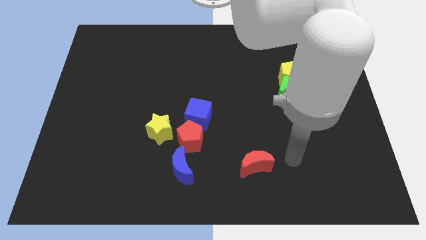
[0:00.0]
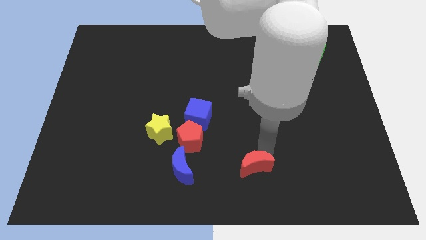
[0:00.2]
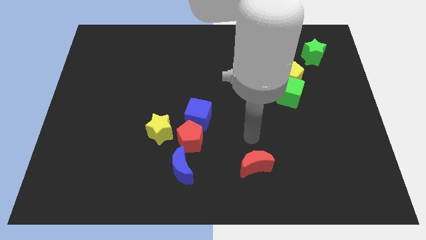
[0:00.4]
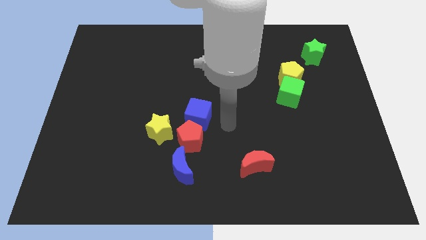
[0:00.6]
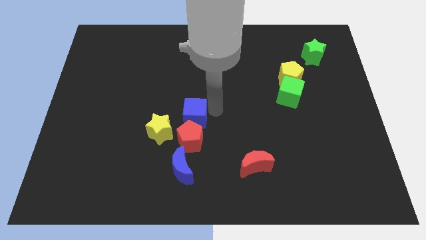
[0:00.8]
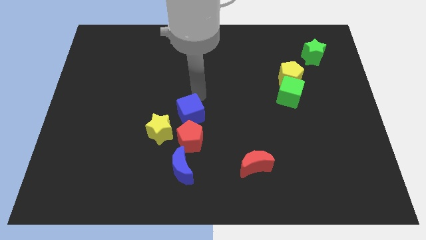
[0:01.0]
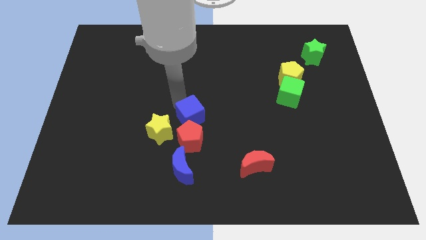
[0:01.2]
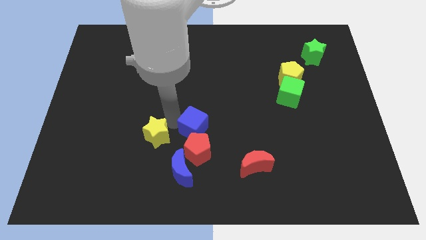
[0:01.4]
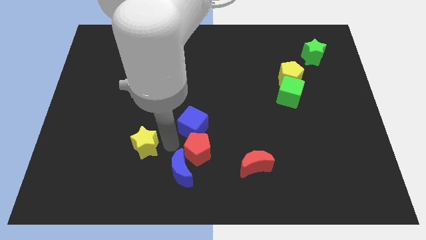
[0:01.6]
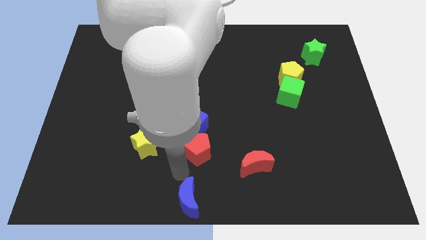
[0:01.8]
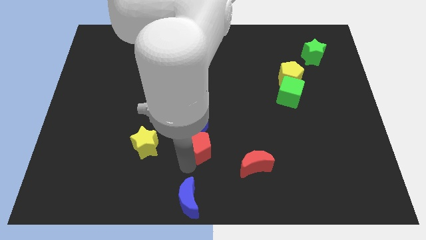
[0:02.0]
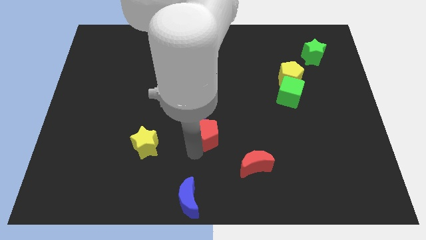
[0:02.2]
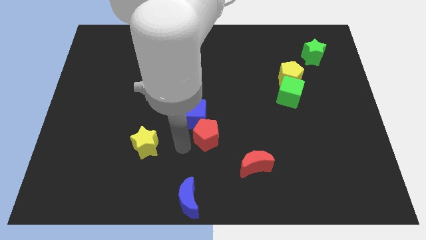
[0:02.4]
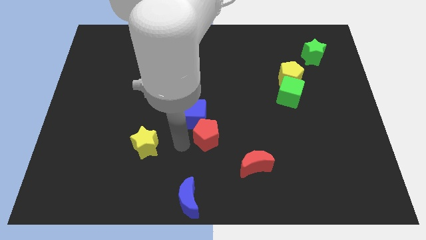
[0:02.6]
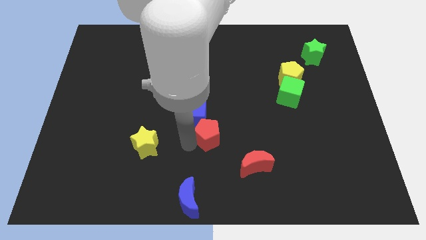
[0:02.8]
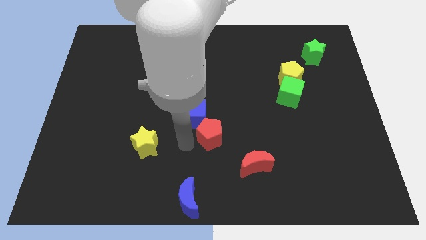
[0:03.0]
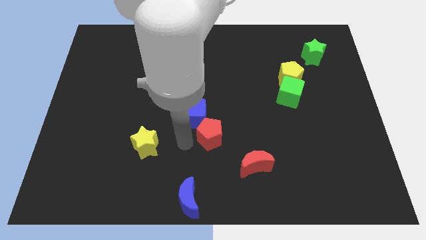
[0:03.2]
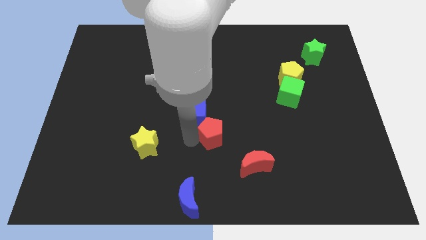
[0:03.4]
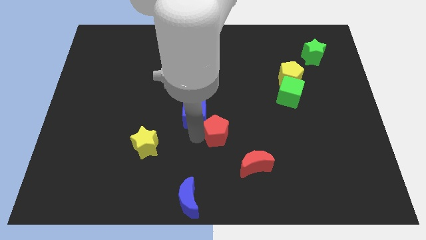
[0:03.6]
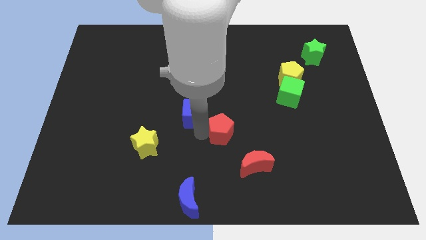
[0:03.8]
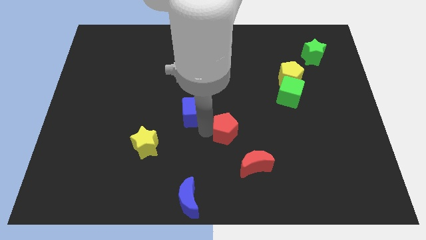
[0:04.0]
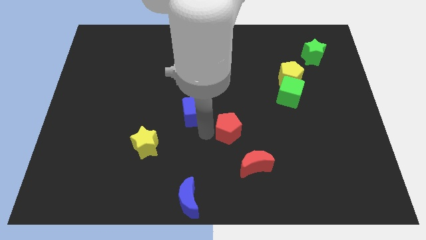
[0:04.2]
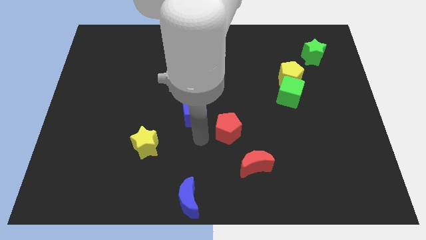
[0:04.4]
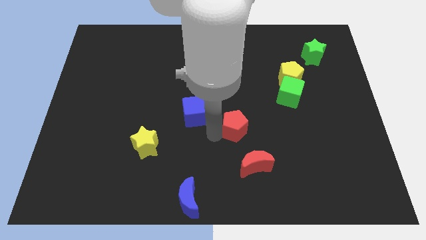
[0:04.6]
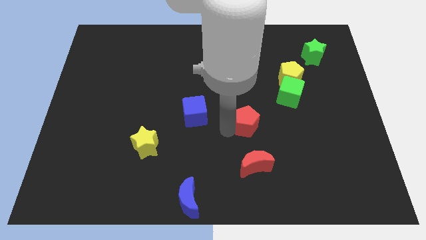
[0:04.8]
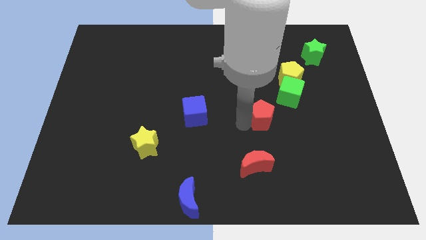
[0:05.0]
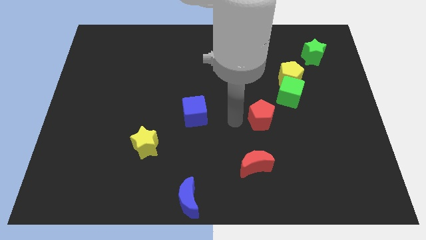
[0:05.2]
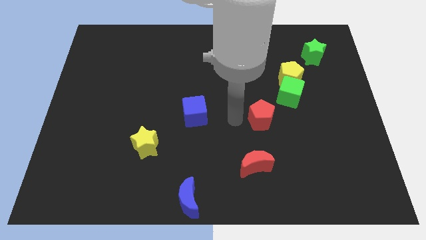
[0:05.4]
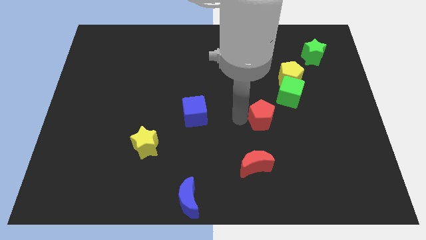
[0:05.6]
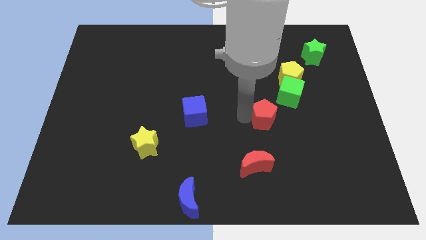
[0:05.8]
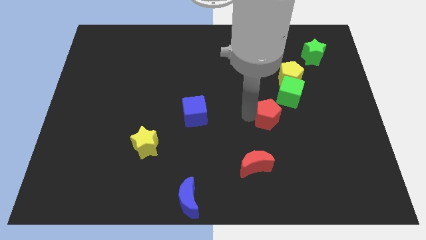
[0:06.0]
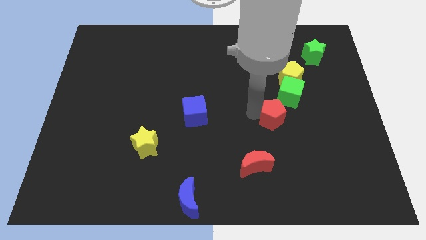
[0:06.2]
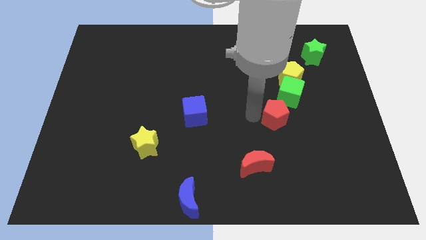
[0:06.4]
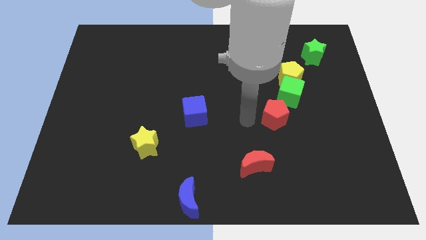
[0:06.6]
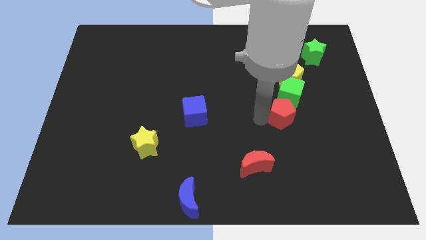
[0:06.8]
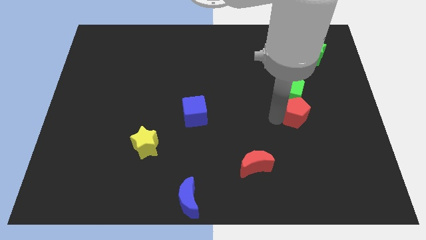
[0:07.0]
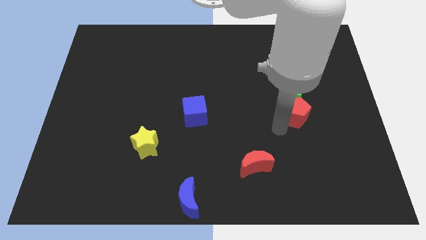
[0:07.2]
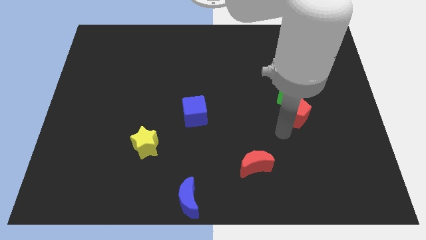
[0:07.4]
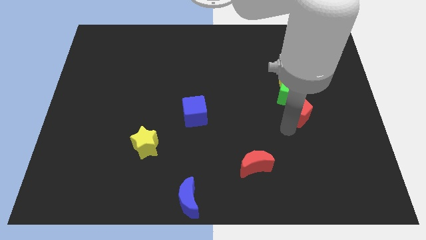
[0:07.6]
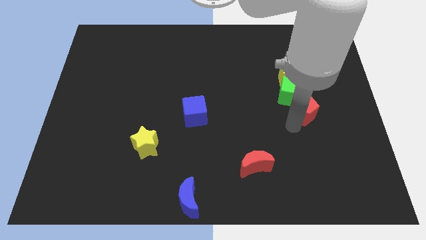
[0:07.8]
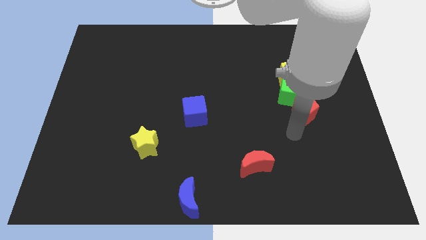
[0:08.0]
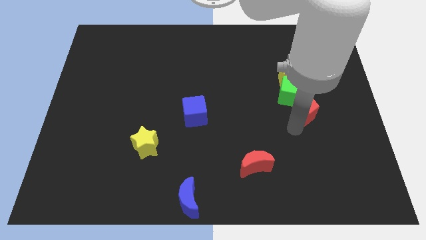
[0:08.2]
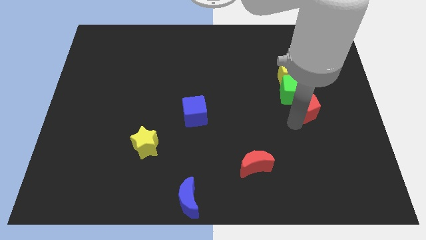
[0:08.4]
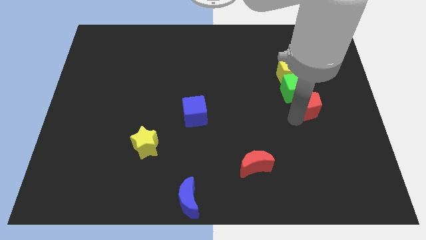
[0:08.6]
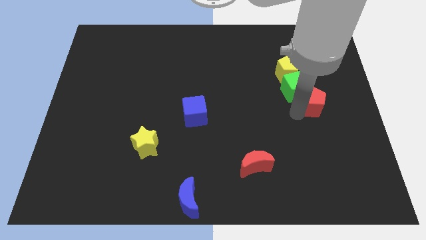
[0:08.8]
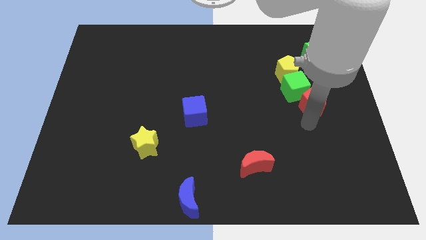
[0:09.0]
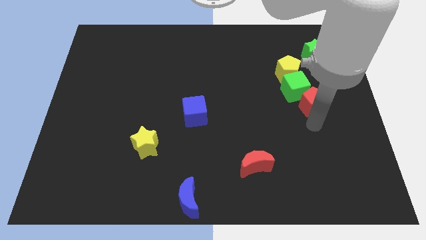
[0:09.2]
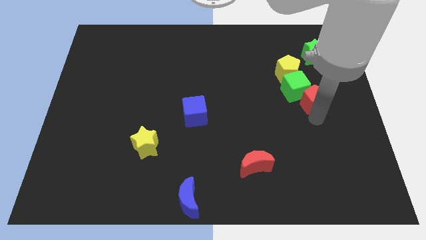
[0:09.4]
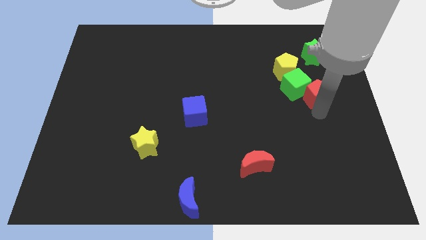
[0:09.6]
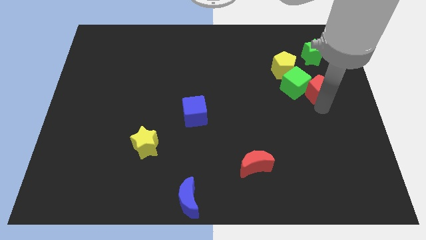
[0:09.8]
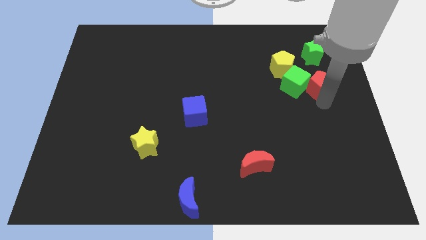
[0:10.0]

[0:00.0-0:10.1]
move the red pentagon to the top right of the green cube

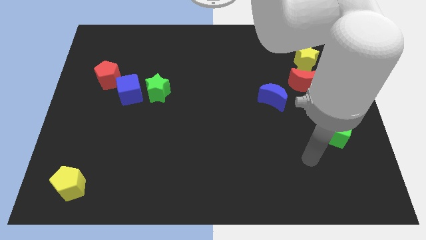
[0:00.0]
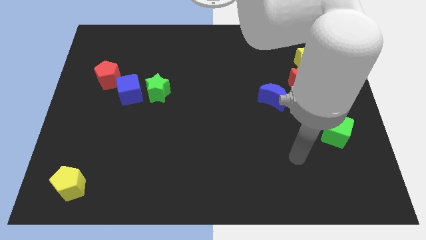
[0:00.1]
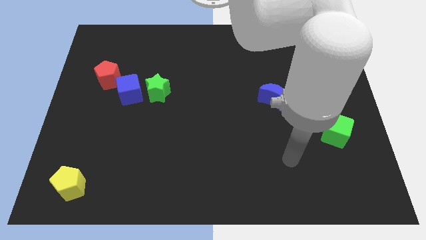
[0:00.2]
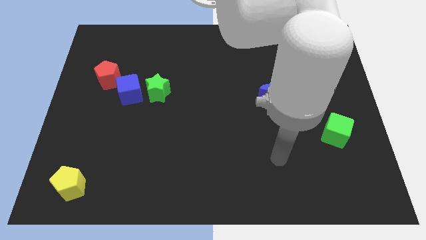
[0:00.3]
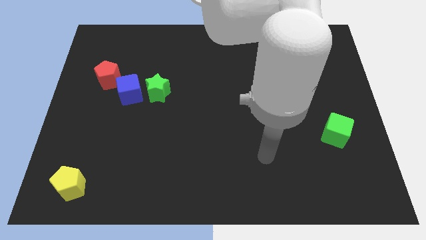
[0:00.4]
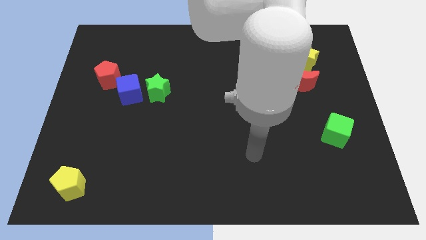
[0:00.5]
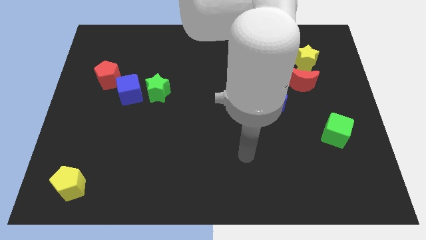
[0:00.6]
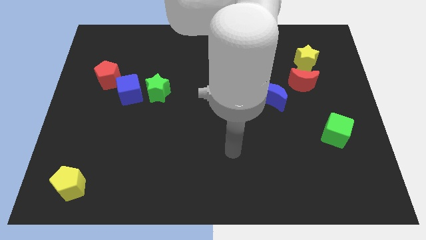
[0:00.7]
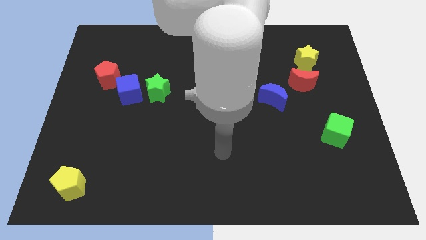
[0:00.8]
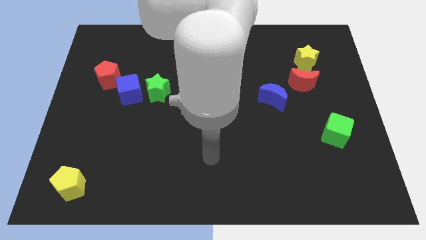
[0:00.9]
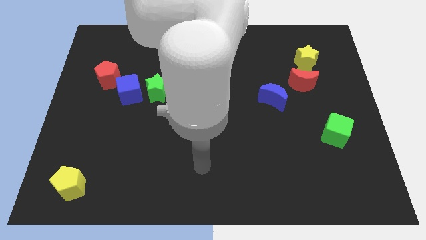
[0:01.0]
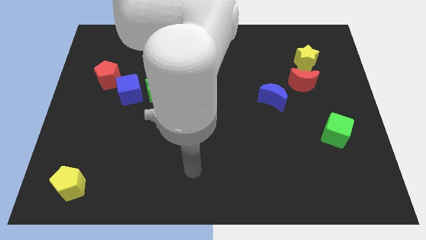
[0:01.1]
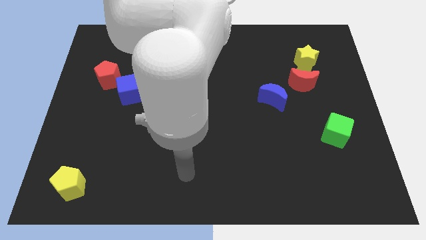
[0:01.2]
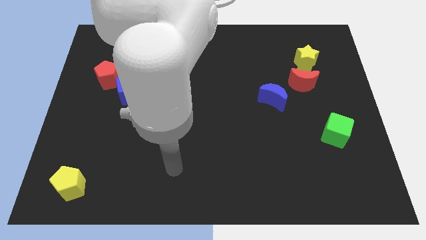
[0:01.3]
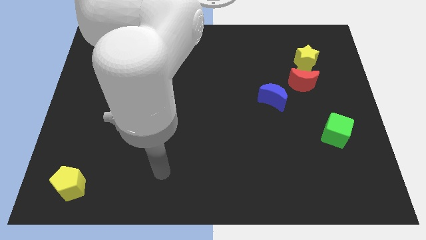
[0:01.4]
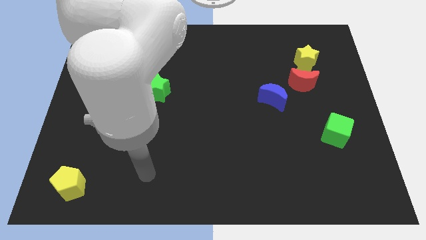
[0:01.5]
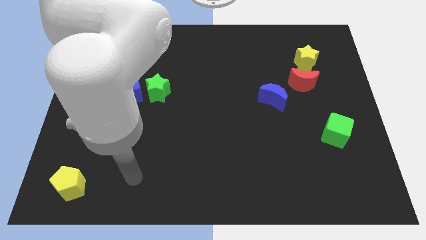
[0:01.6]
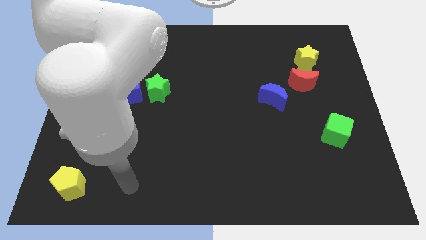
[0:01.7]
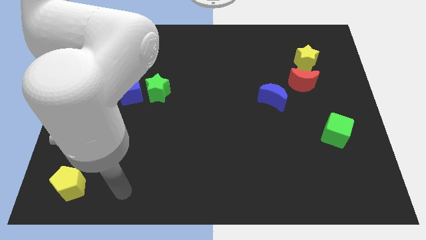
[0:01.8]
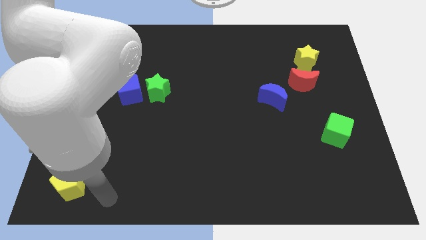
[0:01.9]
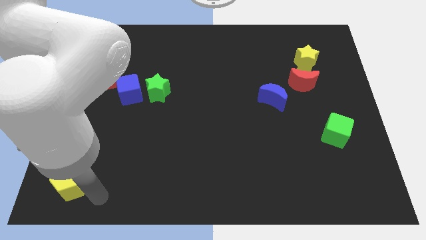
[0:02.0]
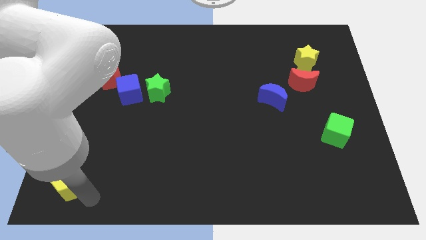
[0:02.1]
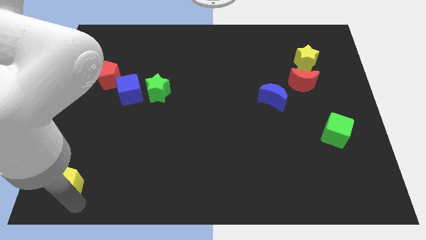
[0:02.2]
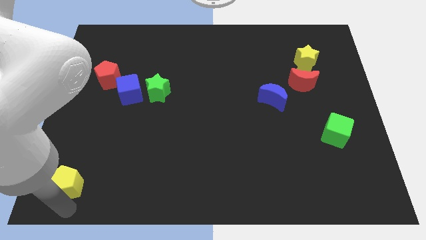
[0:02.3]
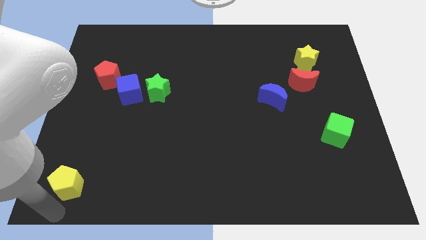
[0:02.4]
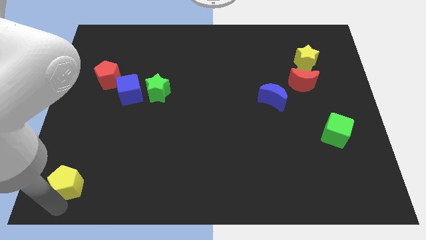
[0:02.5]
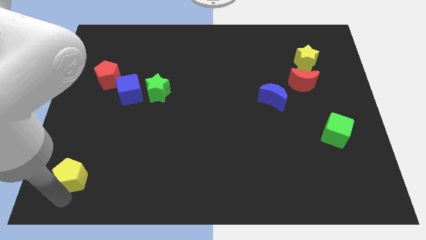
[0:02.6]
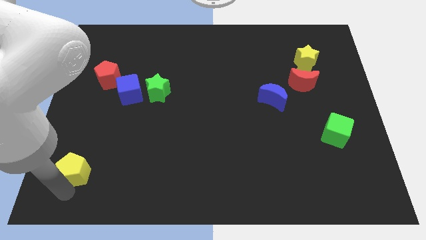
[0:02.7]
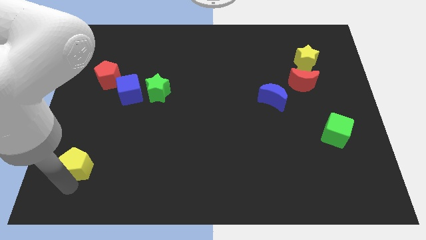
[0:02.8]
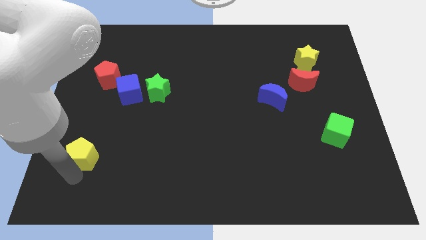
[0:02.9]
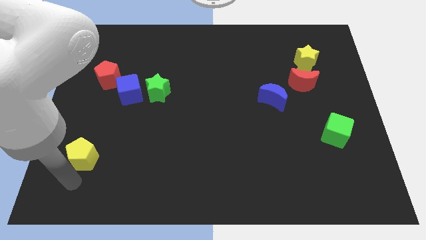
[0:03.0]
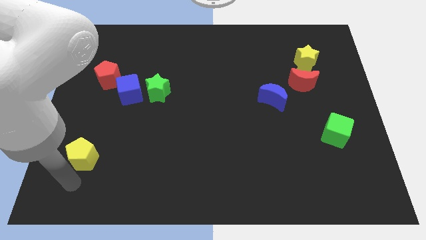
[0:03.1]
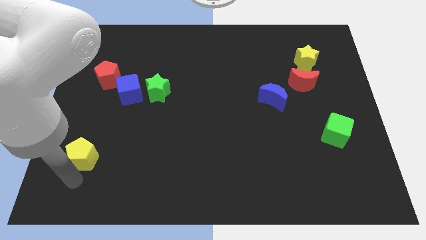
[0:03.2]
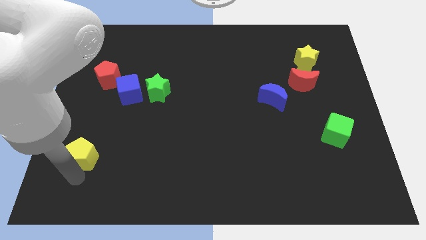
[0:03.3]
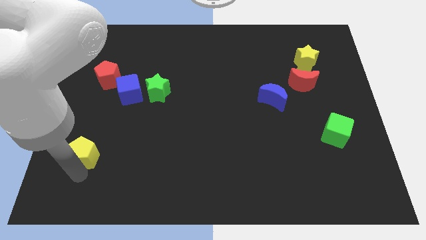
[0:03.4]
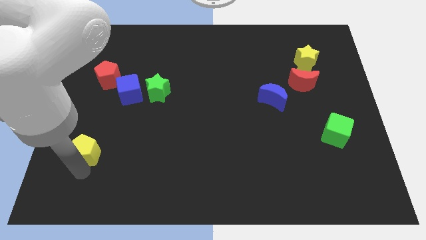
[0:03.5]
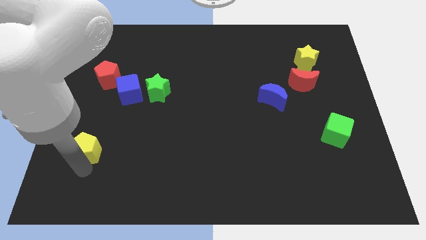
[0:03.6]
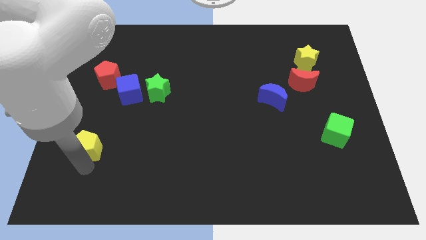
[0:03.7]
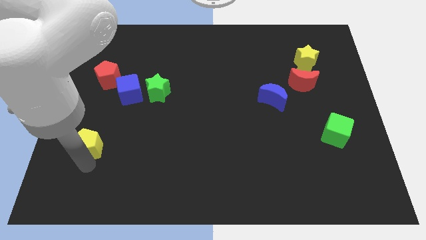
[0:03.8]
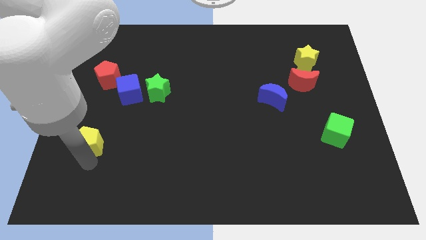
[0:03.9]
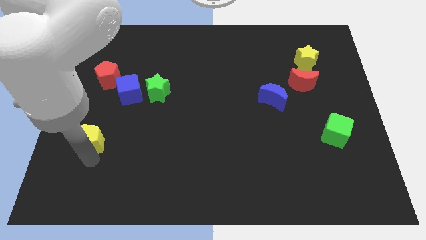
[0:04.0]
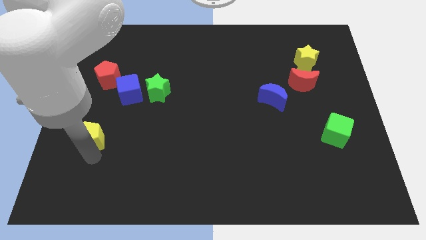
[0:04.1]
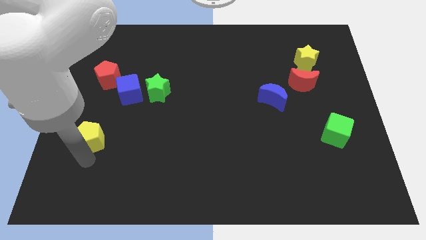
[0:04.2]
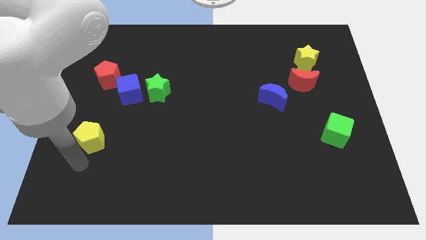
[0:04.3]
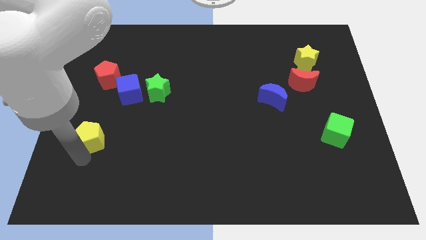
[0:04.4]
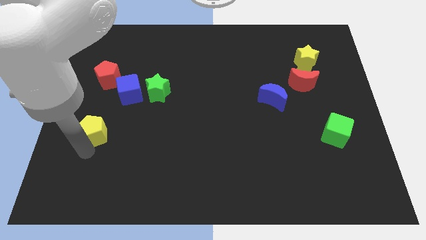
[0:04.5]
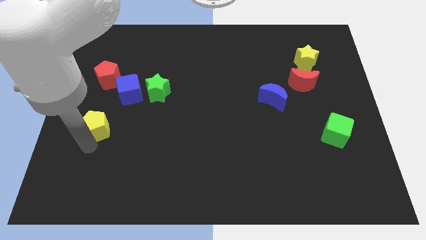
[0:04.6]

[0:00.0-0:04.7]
move the yellow pentagon to the bottom left side of the blue cube
